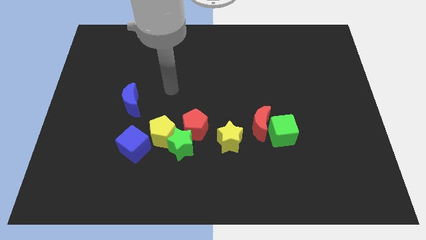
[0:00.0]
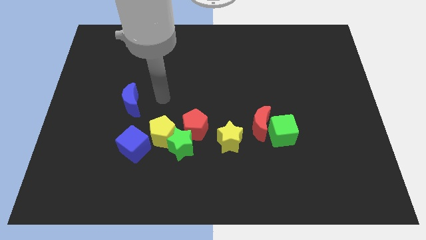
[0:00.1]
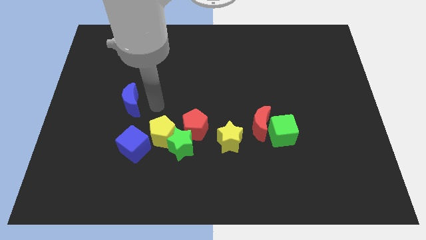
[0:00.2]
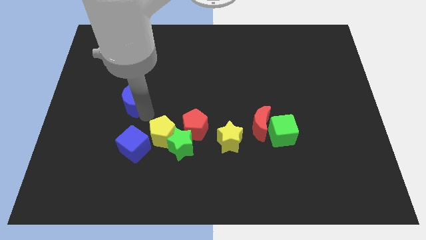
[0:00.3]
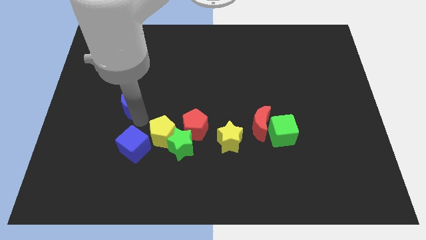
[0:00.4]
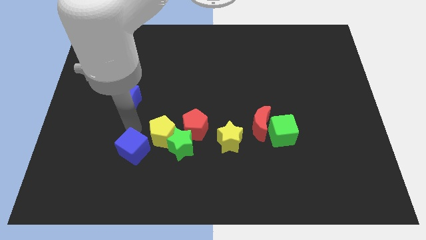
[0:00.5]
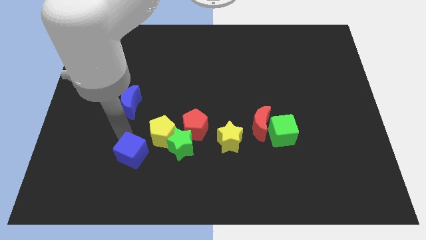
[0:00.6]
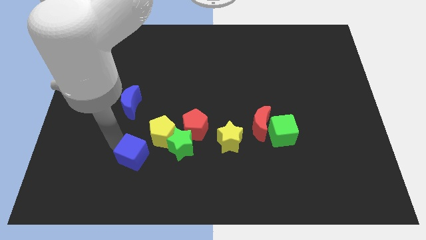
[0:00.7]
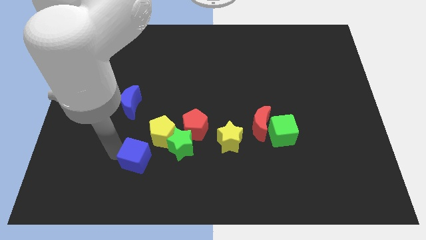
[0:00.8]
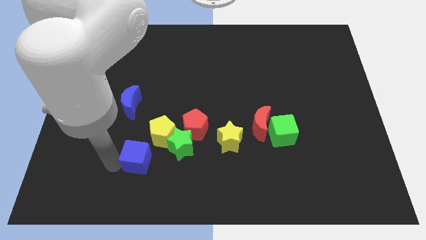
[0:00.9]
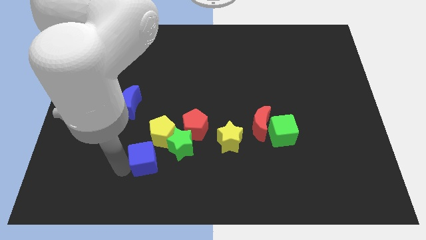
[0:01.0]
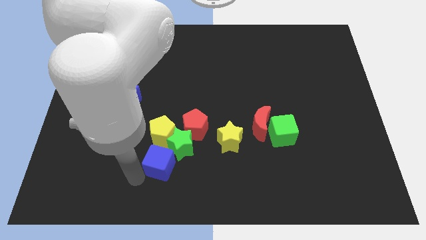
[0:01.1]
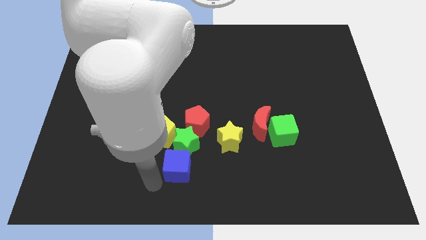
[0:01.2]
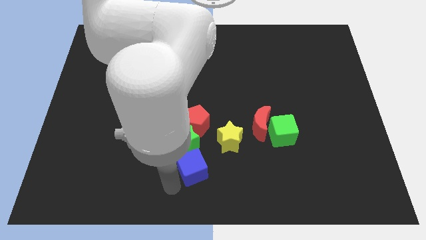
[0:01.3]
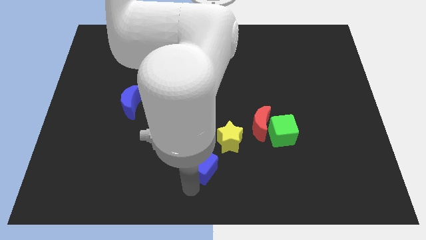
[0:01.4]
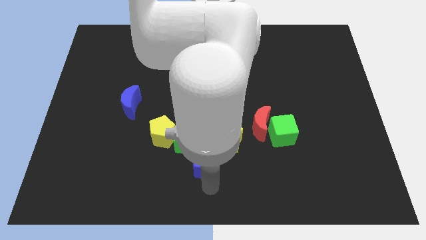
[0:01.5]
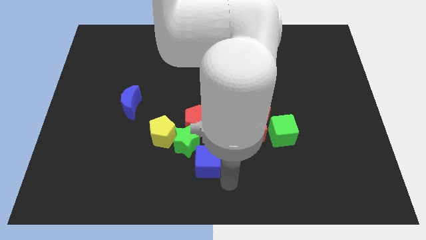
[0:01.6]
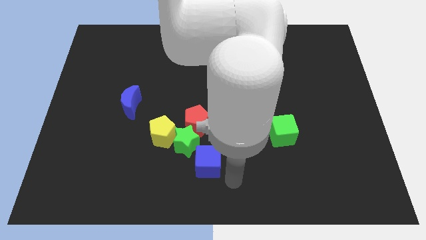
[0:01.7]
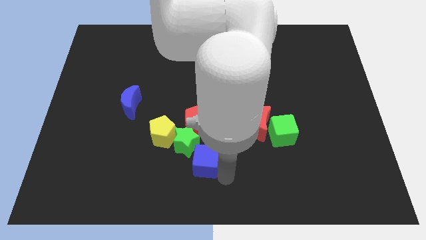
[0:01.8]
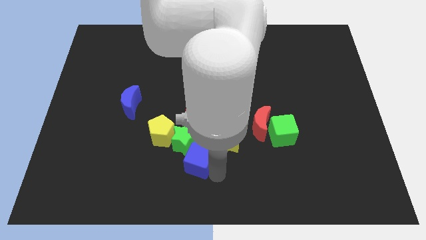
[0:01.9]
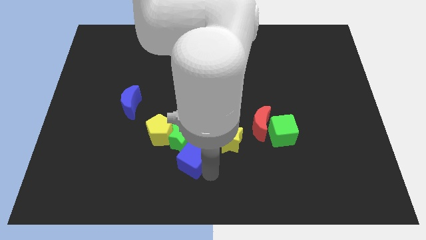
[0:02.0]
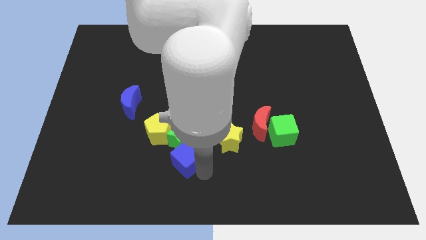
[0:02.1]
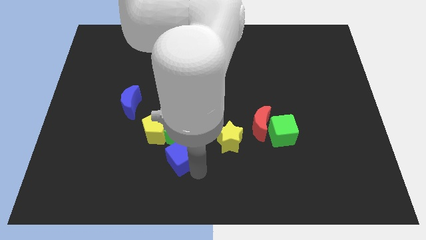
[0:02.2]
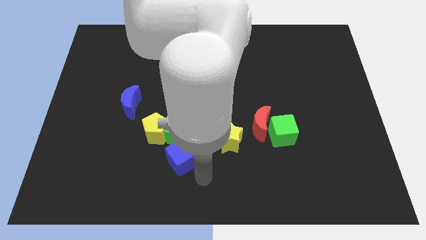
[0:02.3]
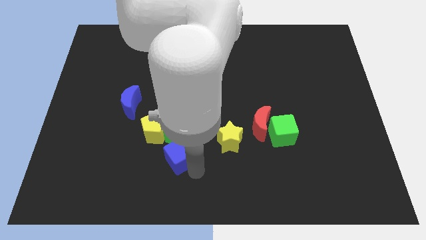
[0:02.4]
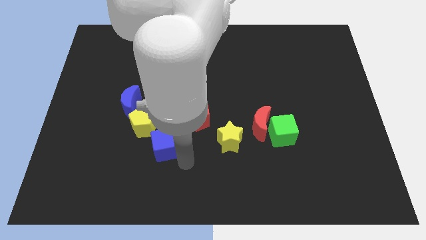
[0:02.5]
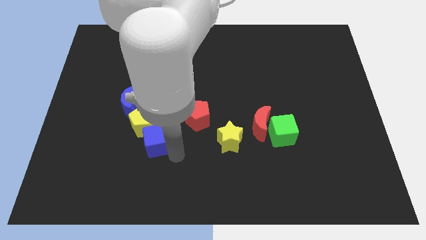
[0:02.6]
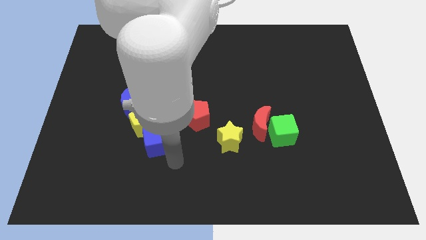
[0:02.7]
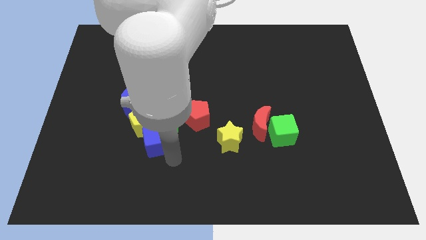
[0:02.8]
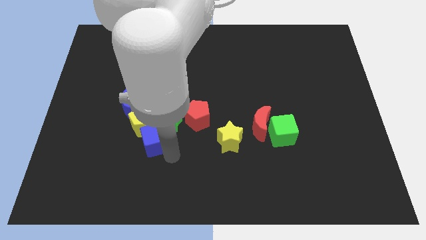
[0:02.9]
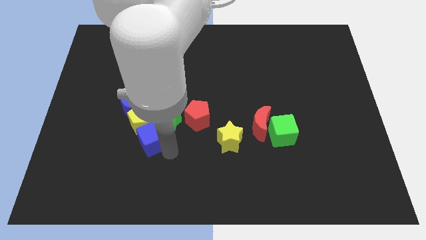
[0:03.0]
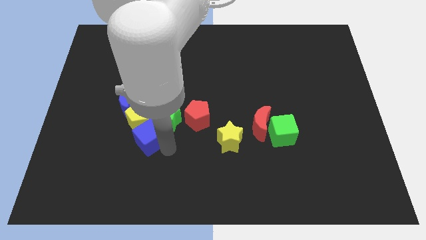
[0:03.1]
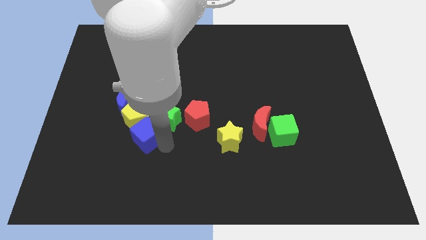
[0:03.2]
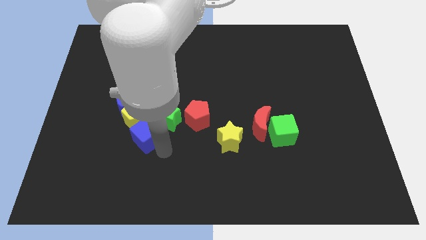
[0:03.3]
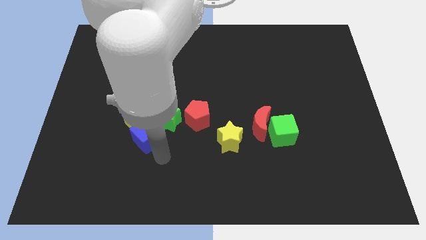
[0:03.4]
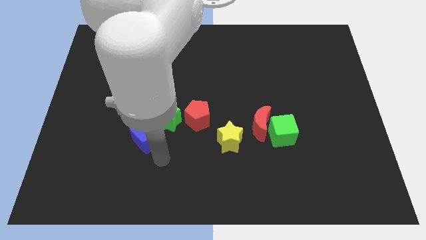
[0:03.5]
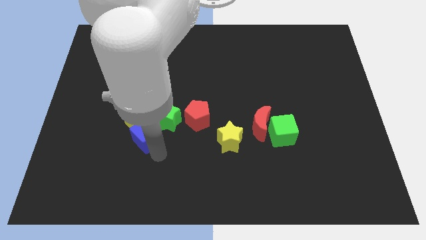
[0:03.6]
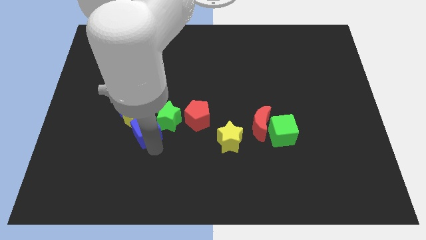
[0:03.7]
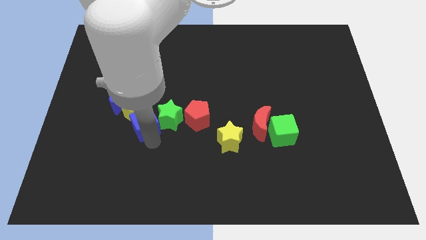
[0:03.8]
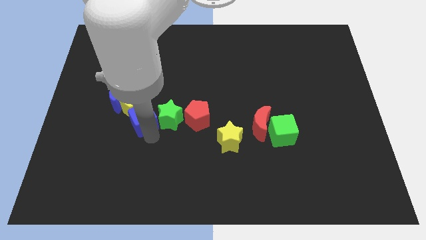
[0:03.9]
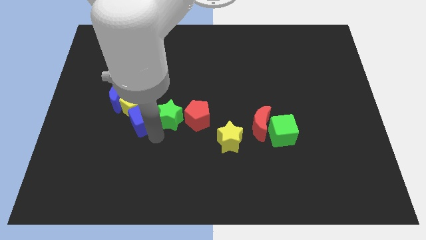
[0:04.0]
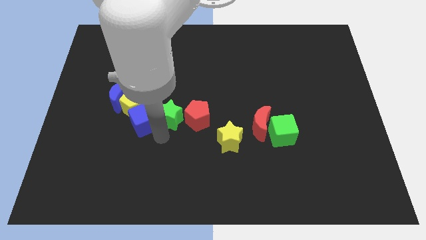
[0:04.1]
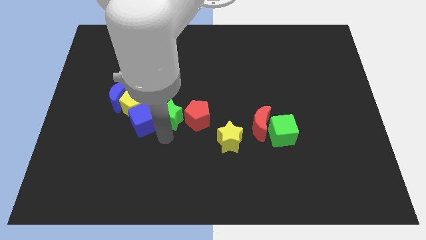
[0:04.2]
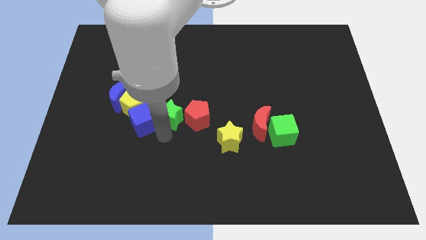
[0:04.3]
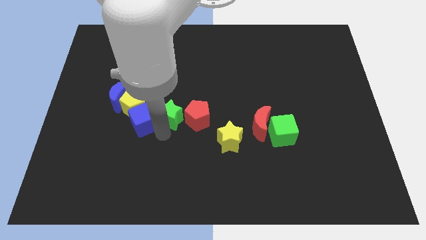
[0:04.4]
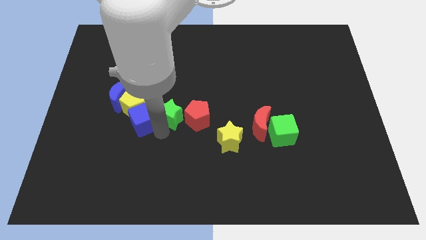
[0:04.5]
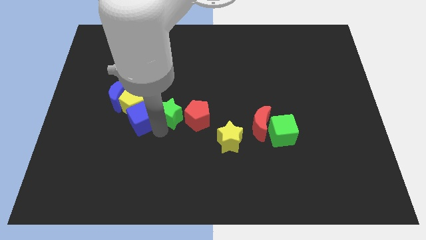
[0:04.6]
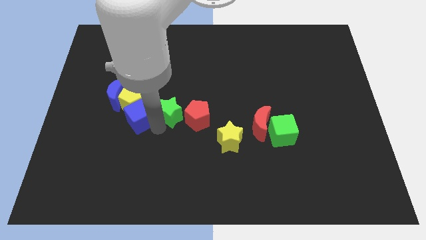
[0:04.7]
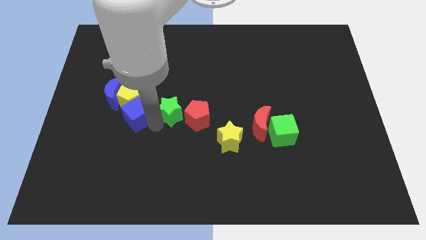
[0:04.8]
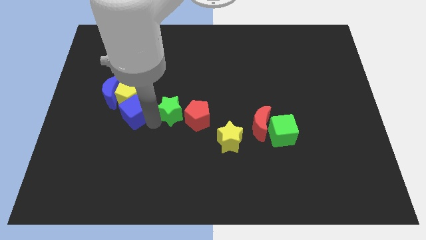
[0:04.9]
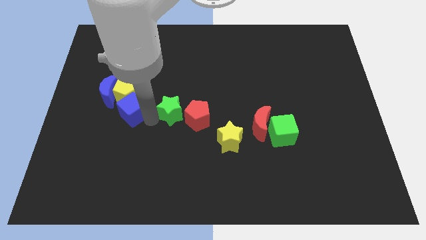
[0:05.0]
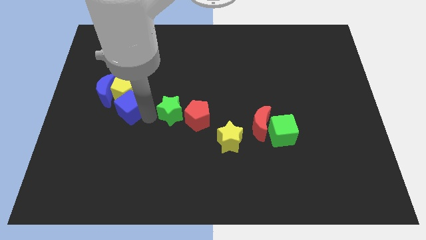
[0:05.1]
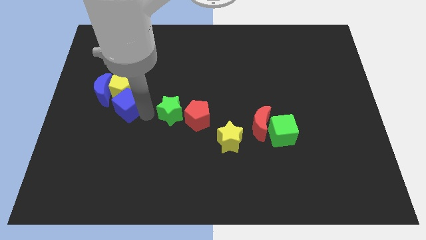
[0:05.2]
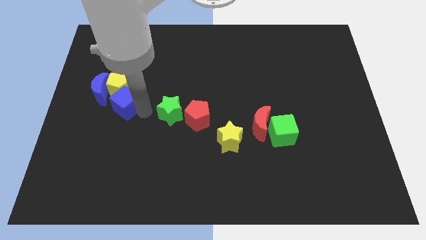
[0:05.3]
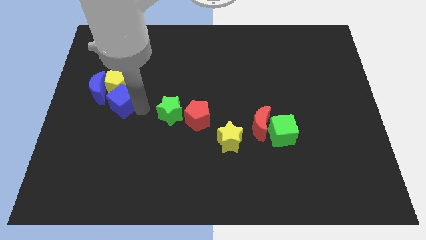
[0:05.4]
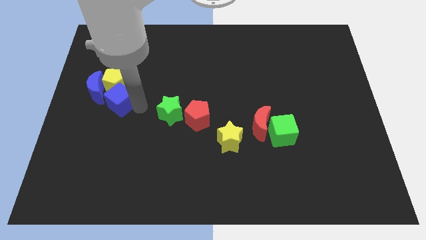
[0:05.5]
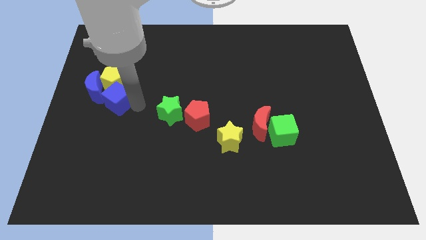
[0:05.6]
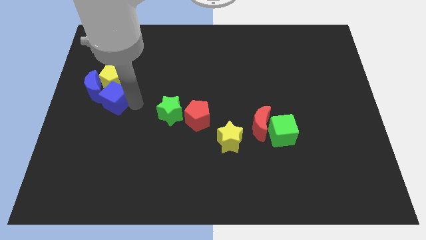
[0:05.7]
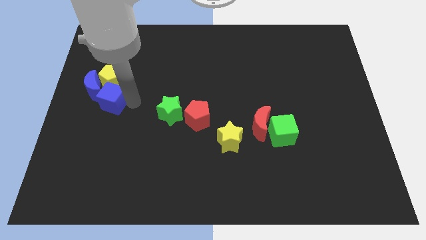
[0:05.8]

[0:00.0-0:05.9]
slide the blue cube next to the blue moon
